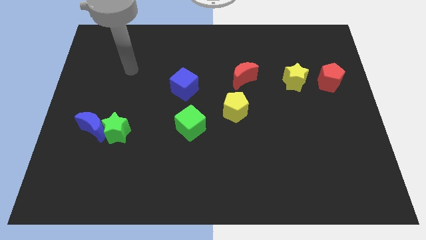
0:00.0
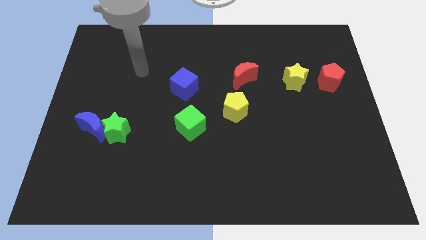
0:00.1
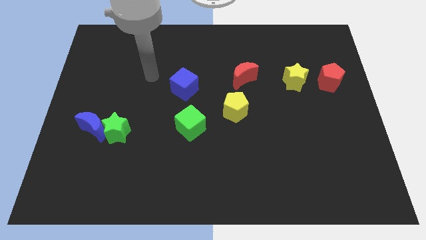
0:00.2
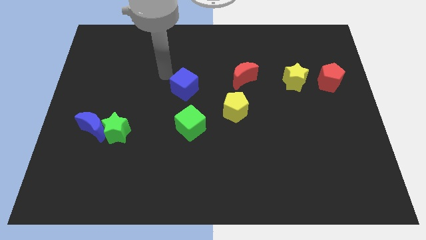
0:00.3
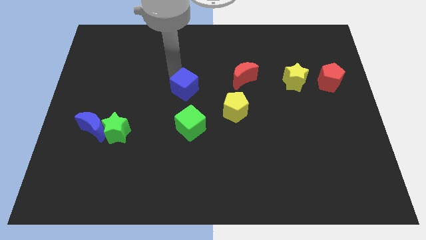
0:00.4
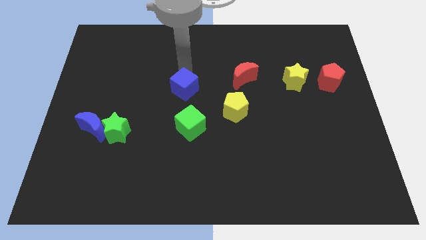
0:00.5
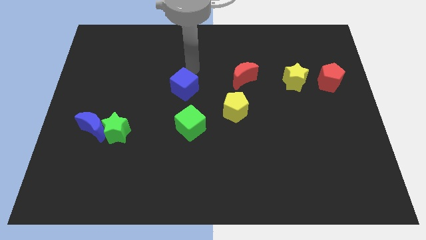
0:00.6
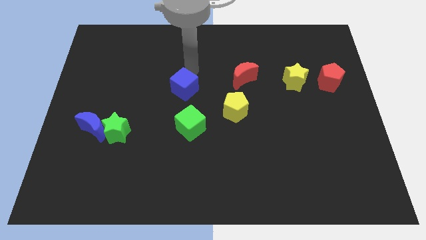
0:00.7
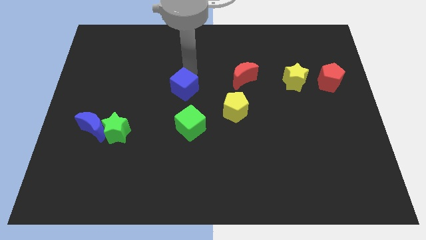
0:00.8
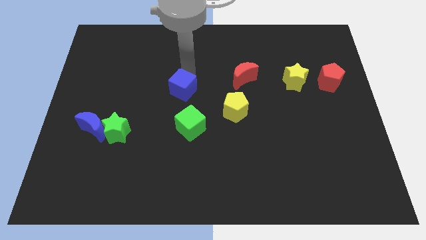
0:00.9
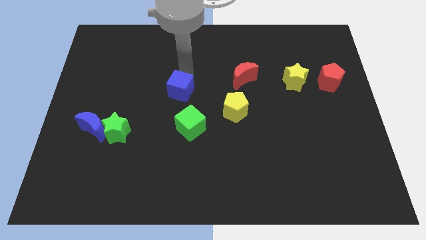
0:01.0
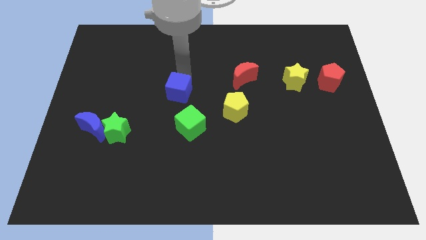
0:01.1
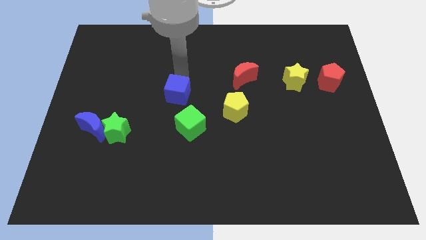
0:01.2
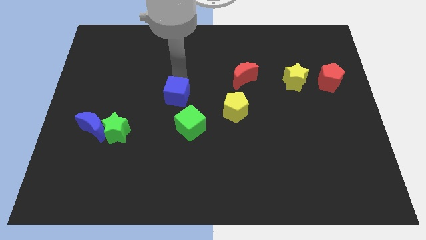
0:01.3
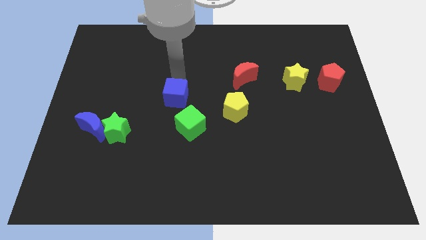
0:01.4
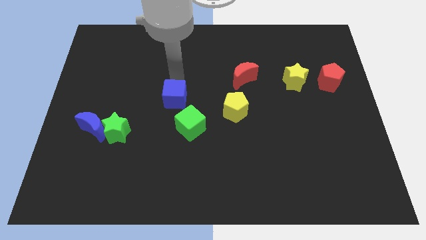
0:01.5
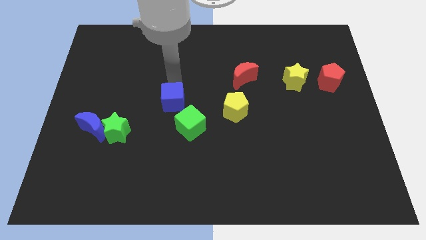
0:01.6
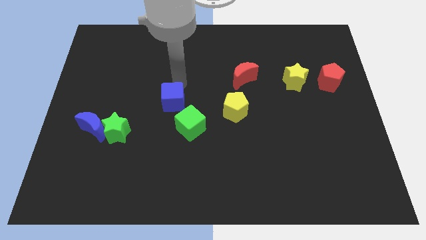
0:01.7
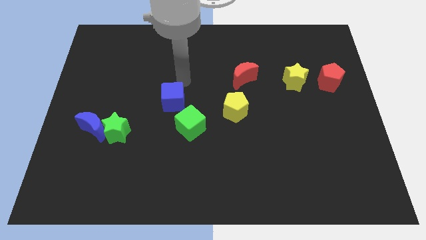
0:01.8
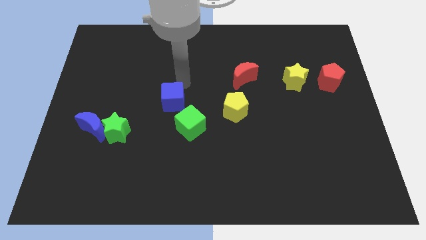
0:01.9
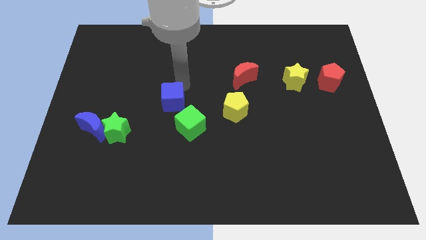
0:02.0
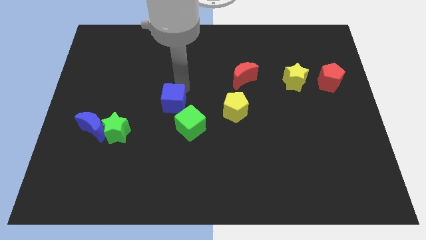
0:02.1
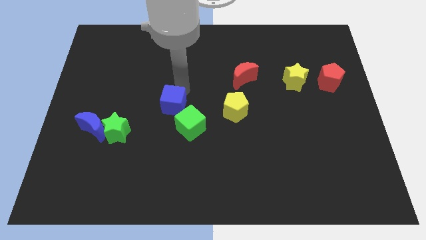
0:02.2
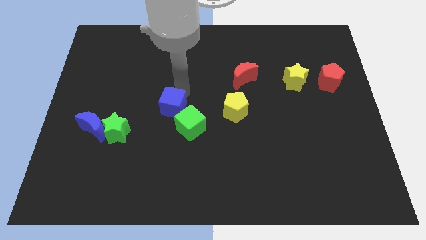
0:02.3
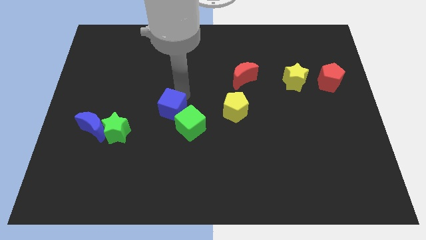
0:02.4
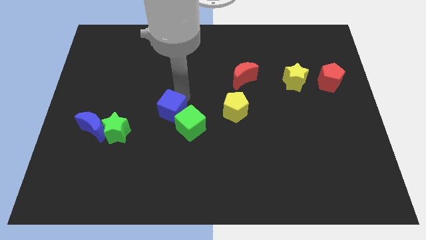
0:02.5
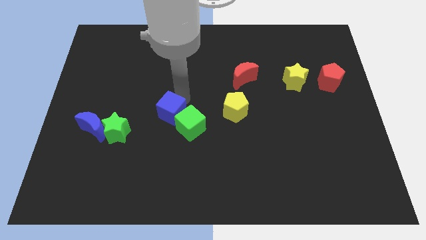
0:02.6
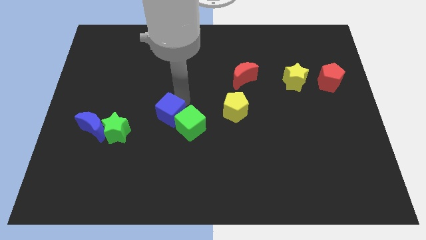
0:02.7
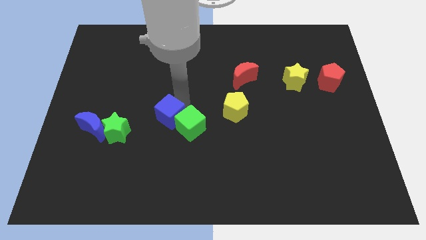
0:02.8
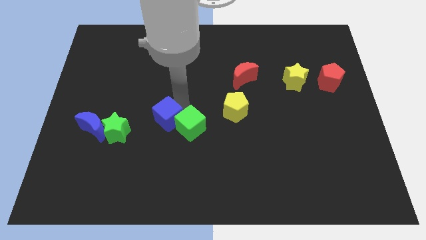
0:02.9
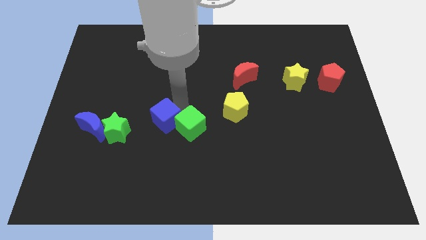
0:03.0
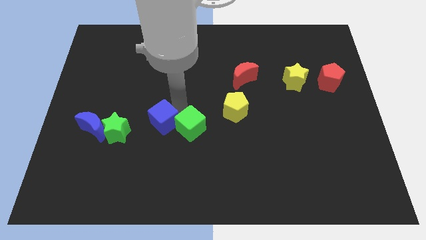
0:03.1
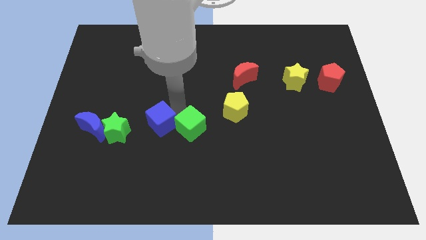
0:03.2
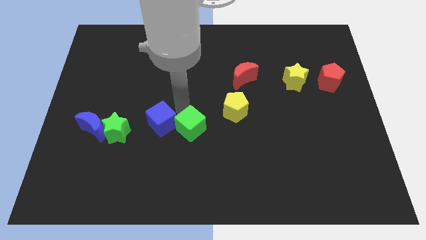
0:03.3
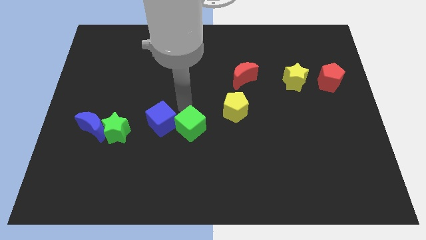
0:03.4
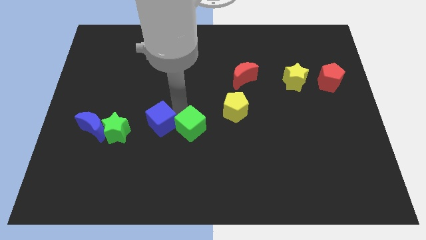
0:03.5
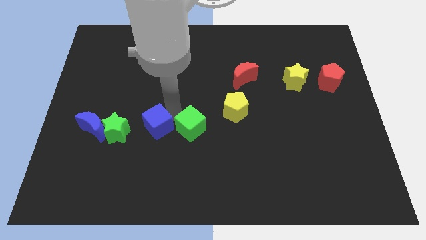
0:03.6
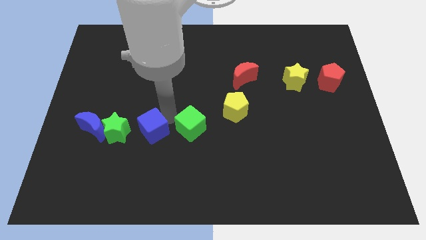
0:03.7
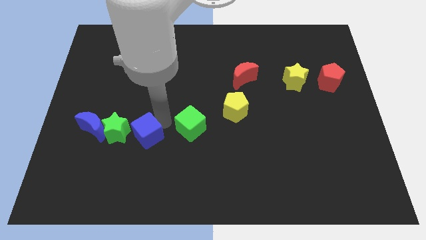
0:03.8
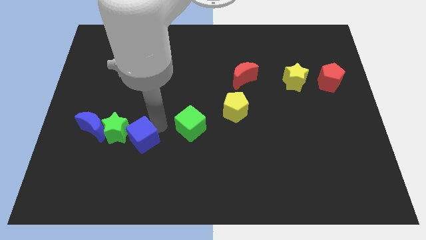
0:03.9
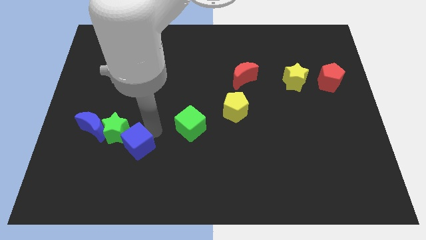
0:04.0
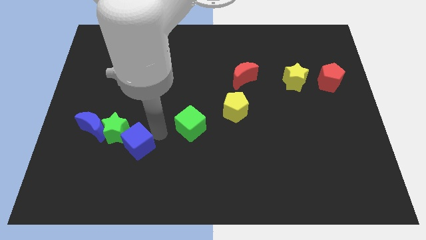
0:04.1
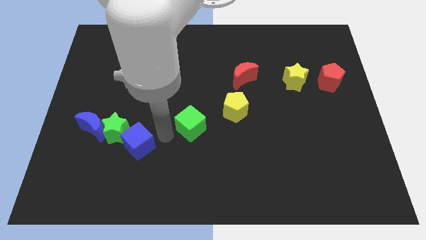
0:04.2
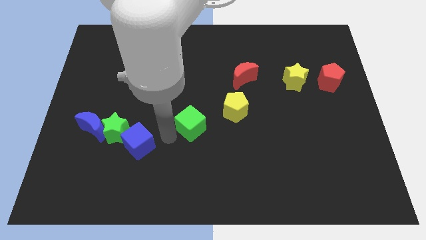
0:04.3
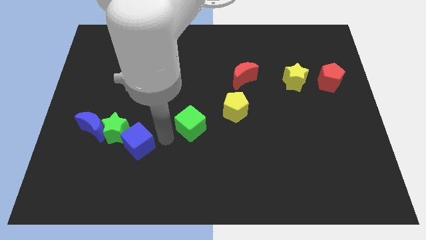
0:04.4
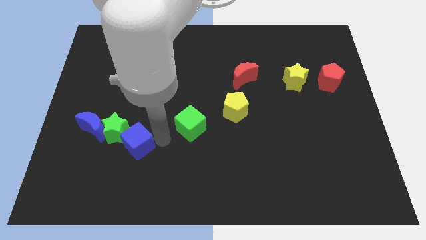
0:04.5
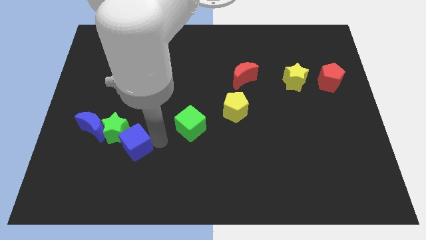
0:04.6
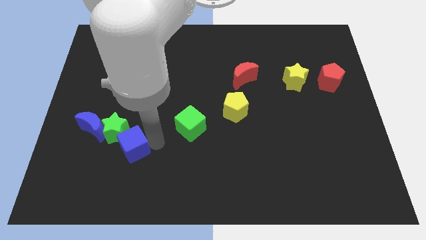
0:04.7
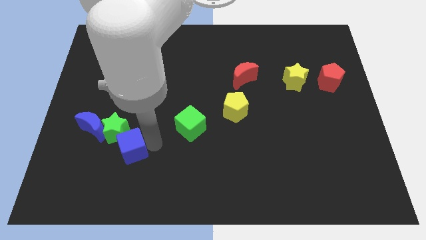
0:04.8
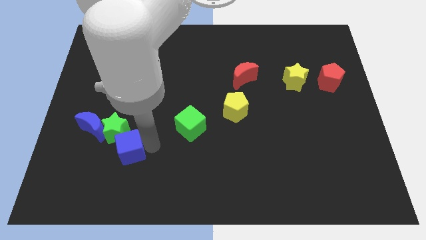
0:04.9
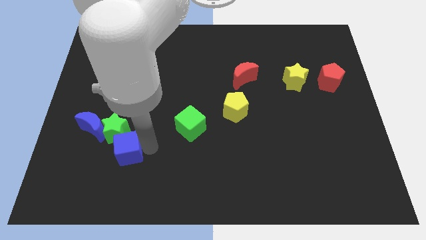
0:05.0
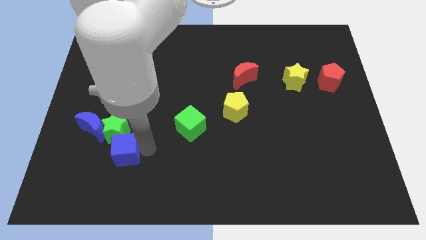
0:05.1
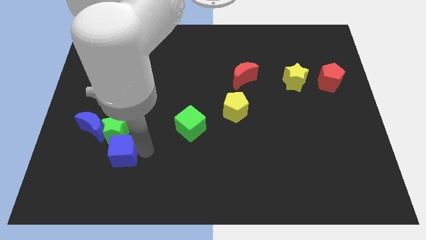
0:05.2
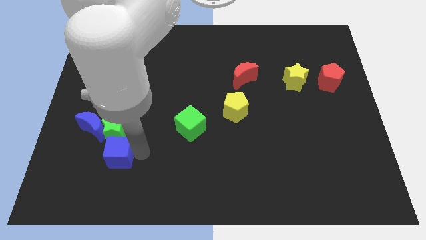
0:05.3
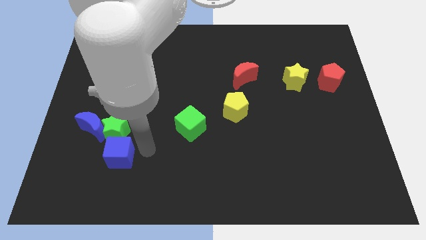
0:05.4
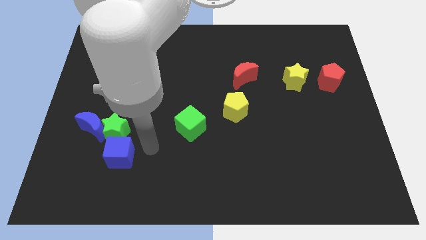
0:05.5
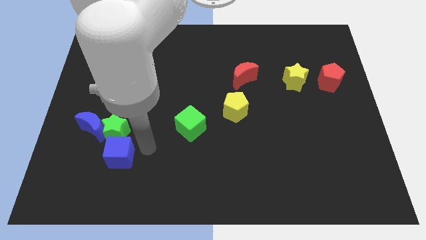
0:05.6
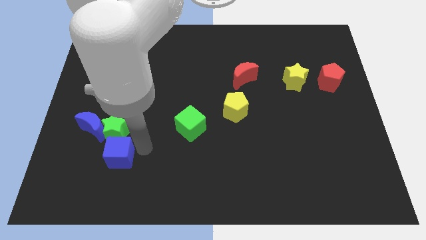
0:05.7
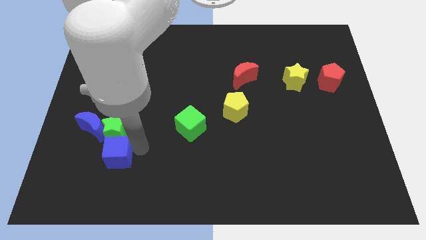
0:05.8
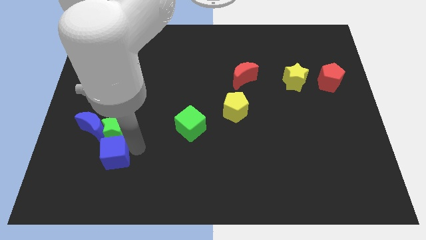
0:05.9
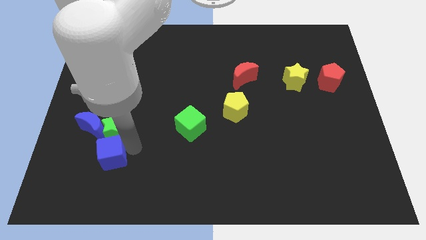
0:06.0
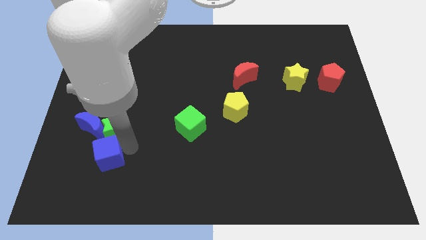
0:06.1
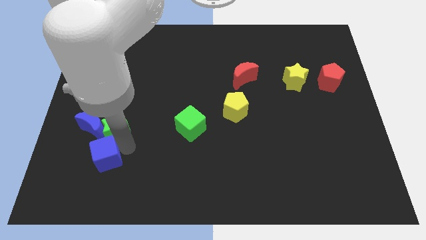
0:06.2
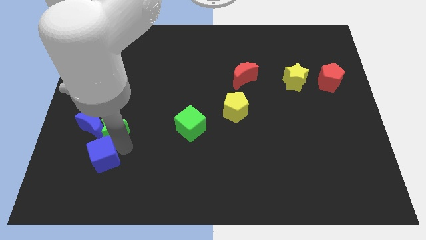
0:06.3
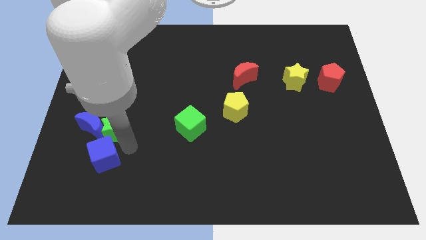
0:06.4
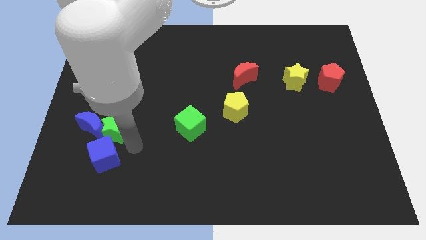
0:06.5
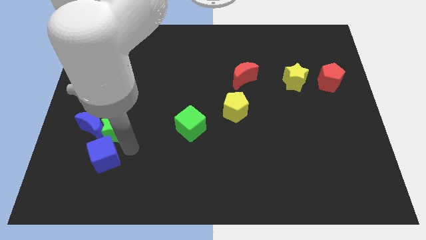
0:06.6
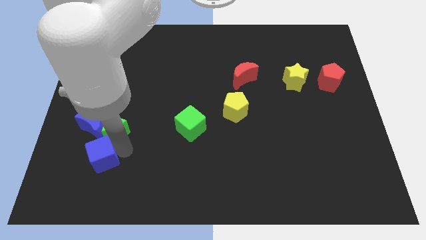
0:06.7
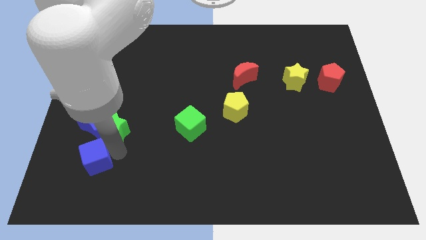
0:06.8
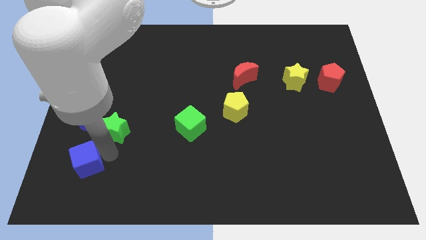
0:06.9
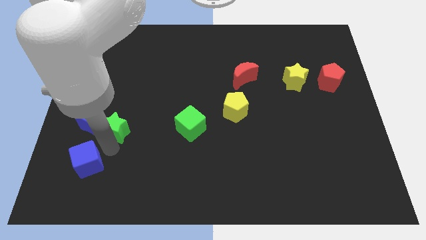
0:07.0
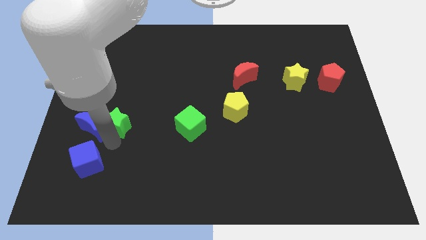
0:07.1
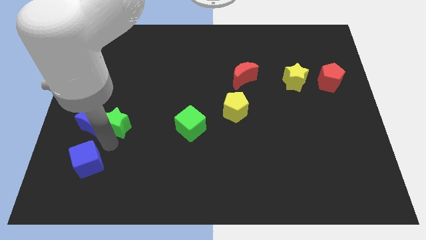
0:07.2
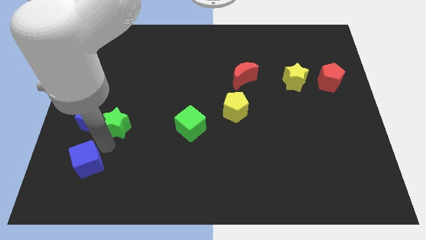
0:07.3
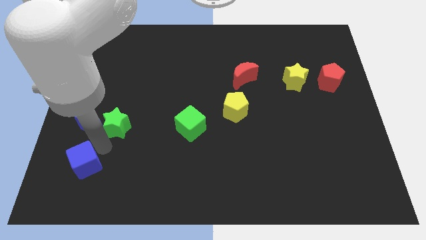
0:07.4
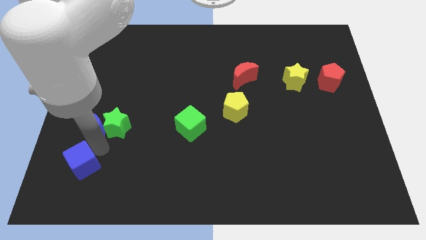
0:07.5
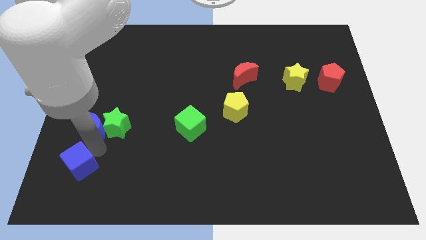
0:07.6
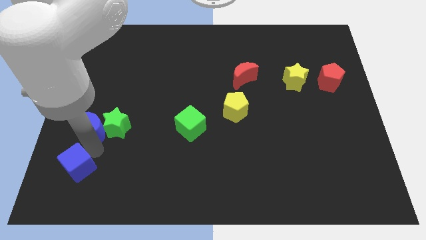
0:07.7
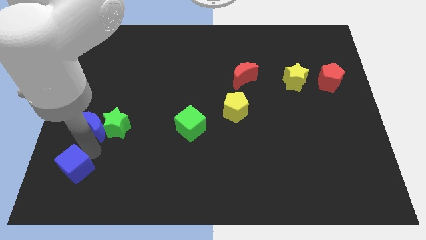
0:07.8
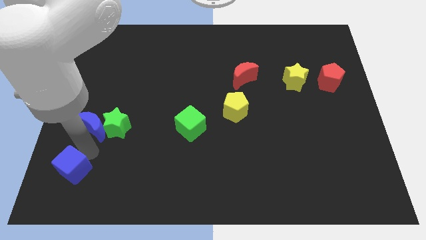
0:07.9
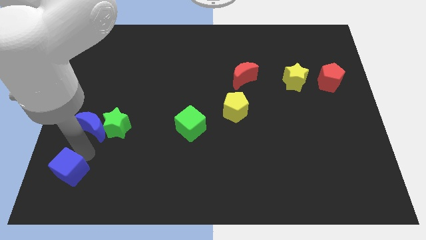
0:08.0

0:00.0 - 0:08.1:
move the blue cube to the bottom left of the board
